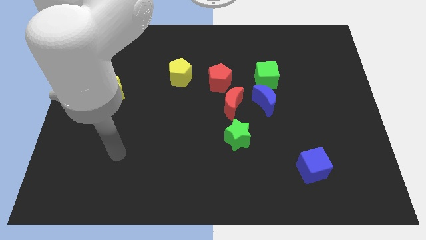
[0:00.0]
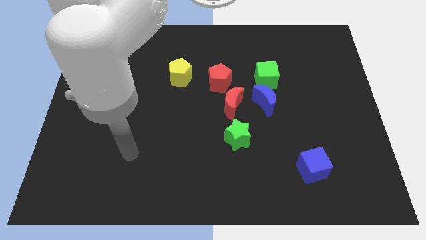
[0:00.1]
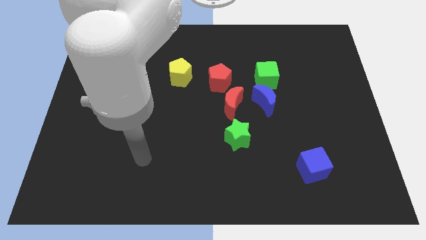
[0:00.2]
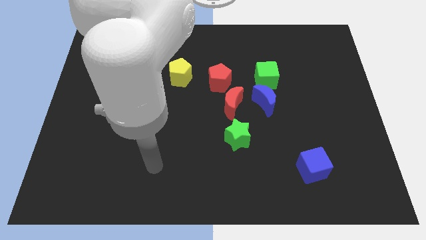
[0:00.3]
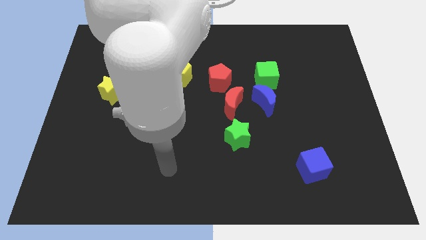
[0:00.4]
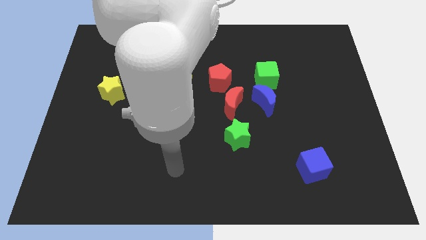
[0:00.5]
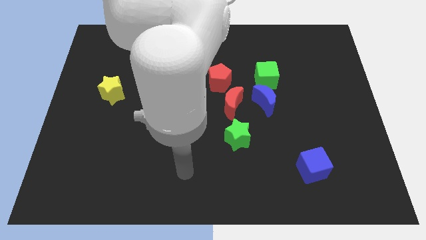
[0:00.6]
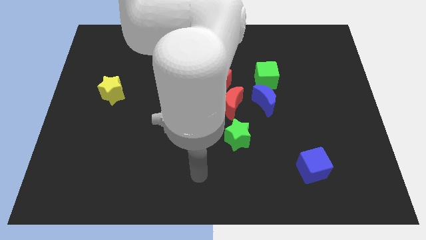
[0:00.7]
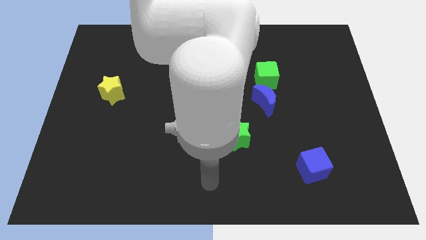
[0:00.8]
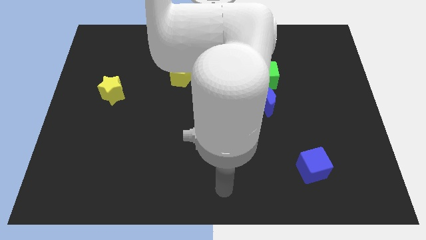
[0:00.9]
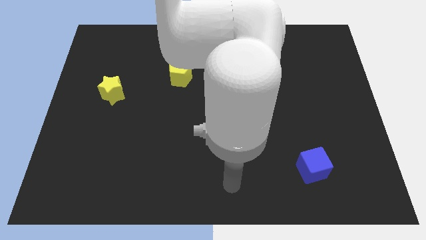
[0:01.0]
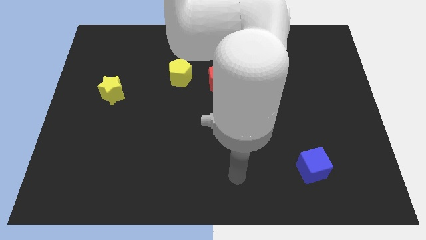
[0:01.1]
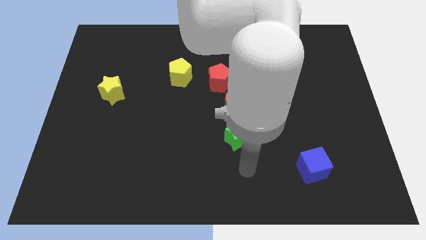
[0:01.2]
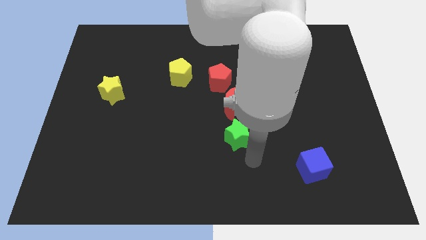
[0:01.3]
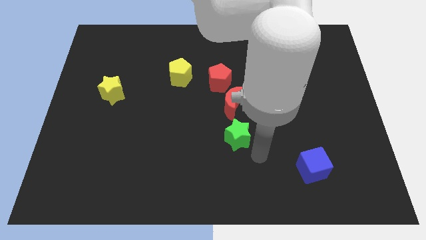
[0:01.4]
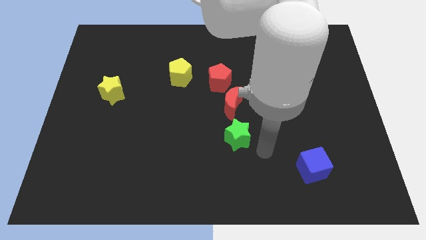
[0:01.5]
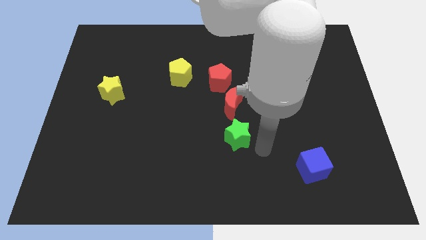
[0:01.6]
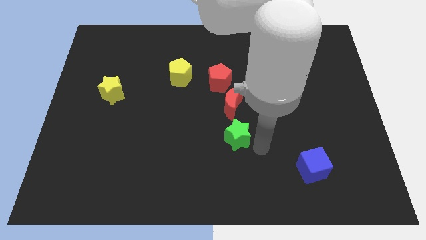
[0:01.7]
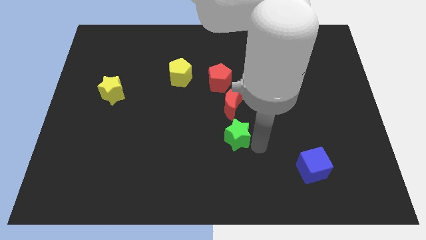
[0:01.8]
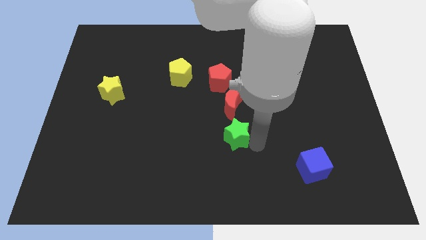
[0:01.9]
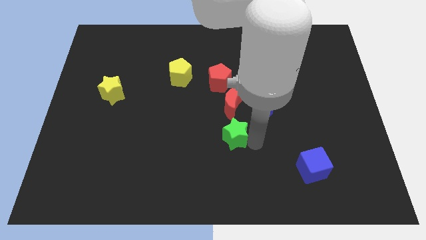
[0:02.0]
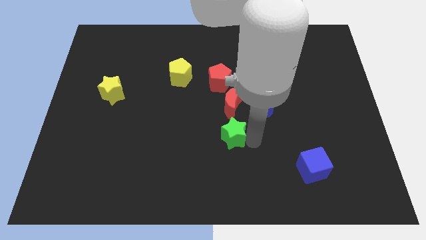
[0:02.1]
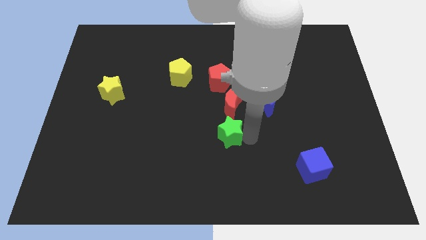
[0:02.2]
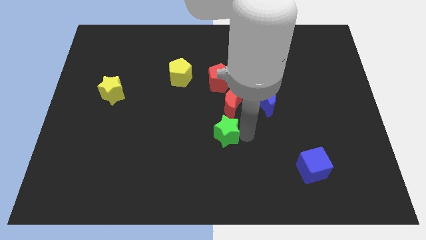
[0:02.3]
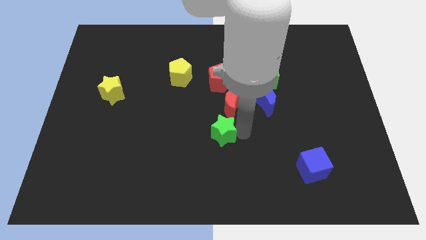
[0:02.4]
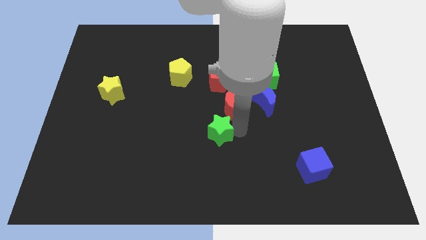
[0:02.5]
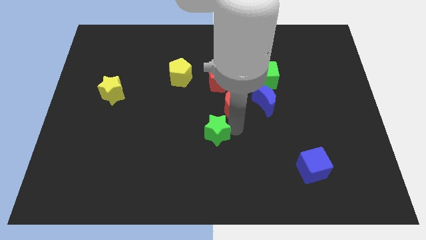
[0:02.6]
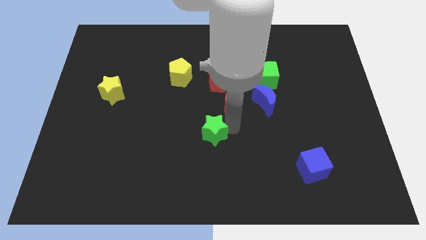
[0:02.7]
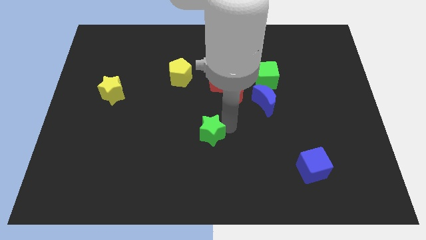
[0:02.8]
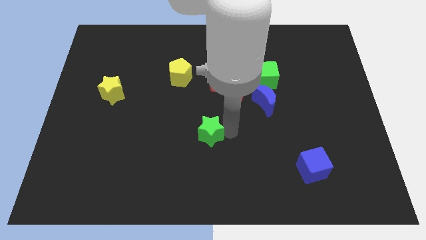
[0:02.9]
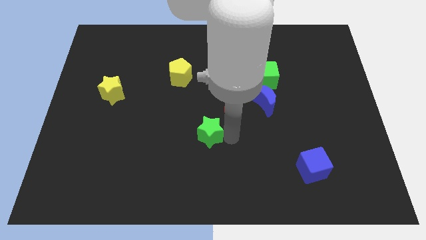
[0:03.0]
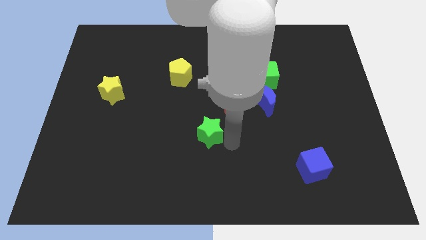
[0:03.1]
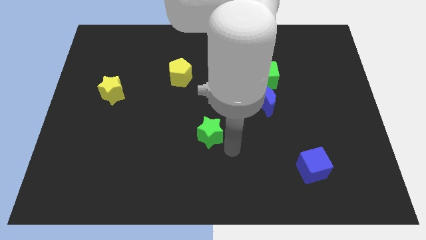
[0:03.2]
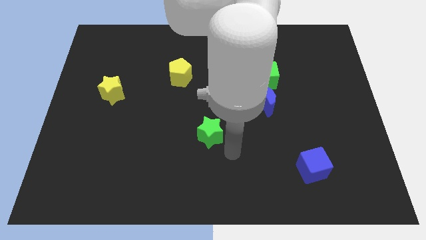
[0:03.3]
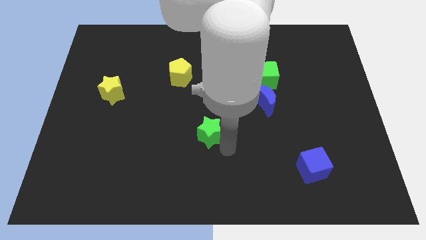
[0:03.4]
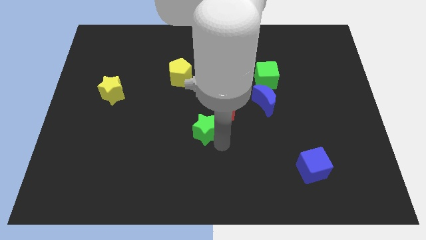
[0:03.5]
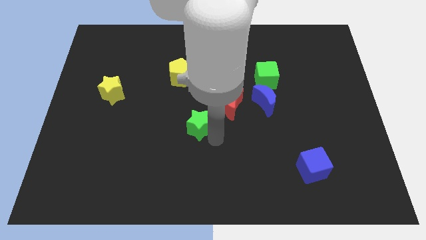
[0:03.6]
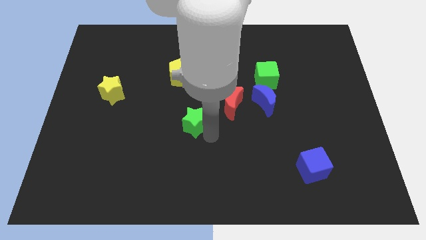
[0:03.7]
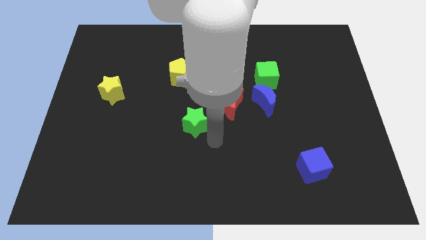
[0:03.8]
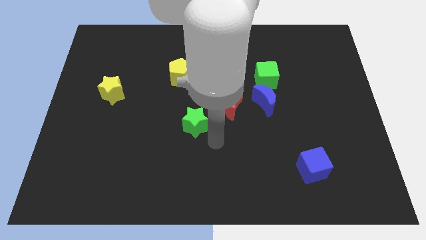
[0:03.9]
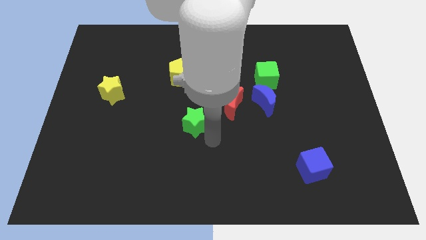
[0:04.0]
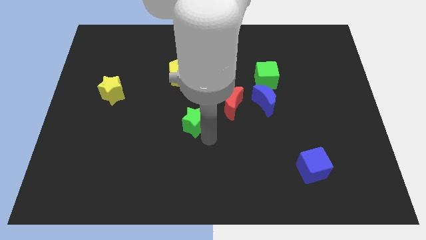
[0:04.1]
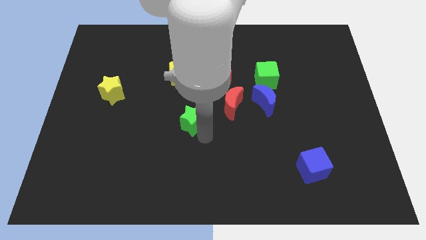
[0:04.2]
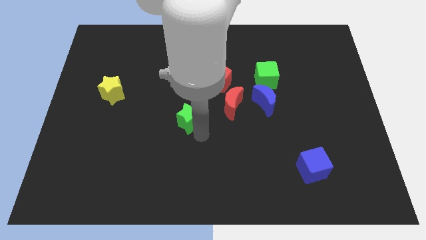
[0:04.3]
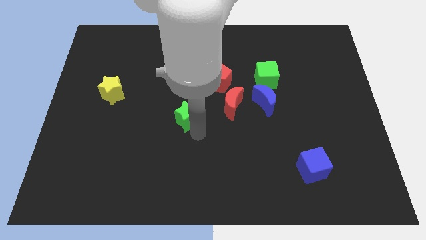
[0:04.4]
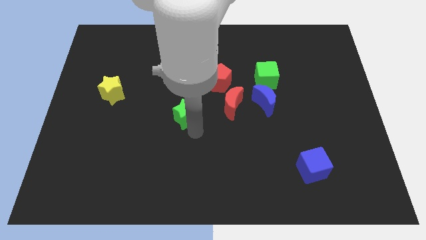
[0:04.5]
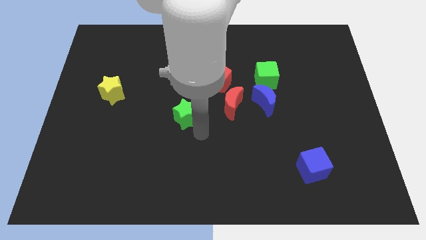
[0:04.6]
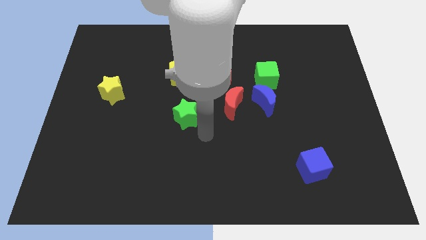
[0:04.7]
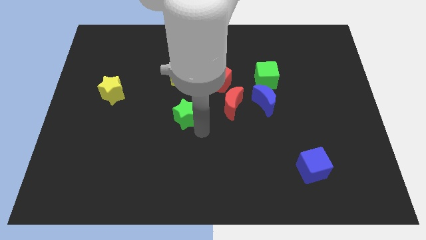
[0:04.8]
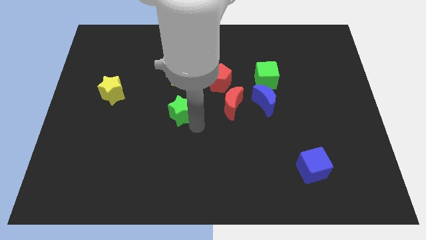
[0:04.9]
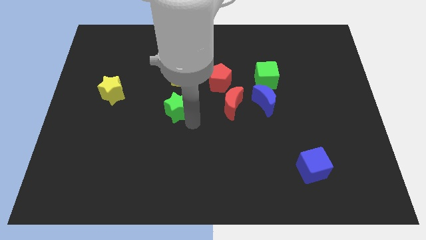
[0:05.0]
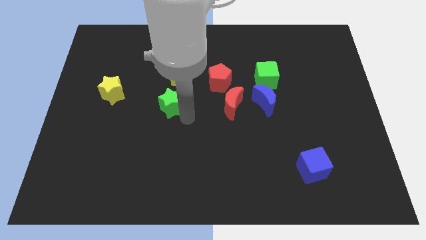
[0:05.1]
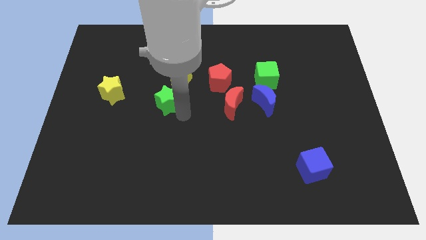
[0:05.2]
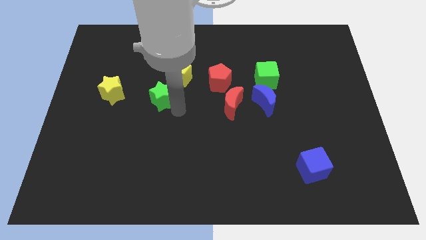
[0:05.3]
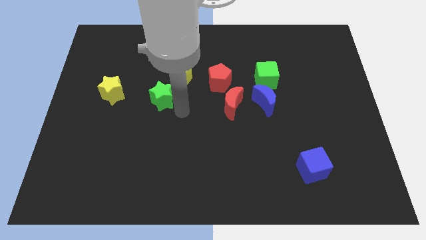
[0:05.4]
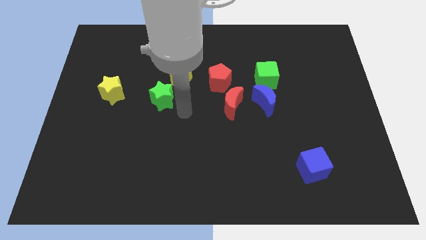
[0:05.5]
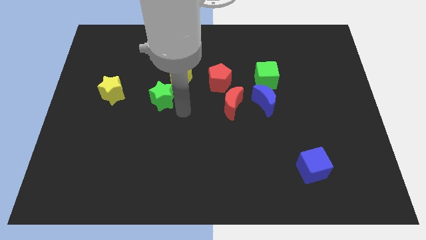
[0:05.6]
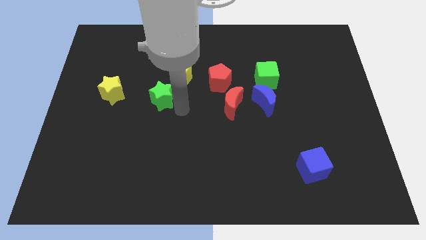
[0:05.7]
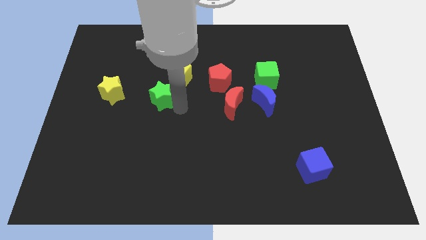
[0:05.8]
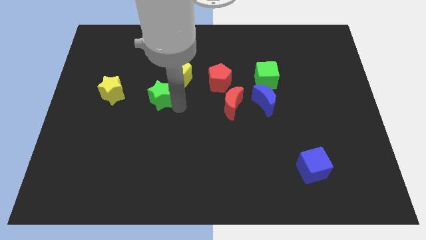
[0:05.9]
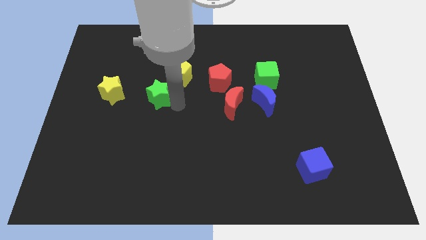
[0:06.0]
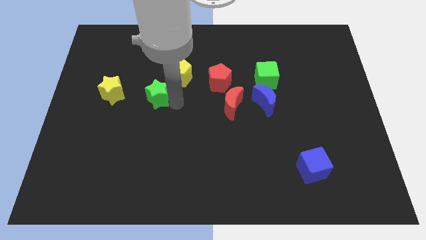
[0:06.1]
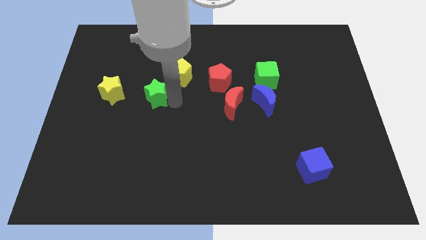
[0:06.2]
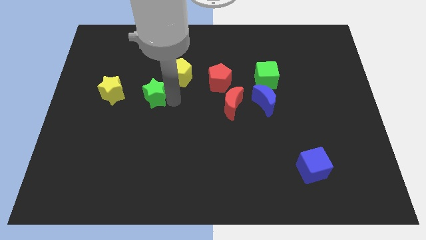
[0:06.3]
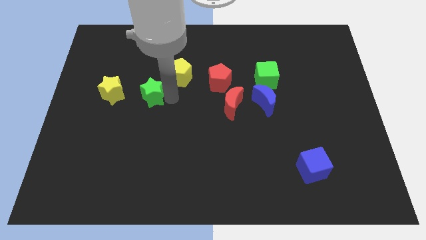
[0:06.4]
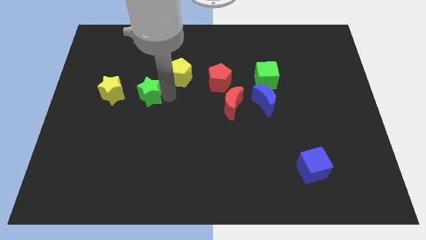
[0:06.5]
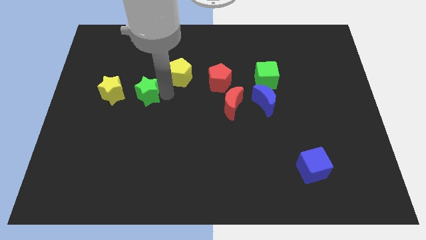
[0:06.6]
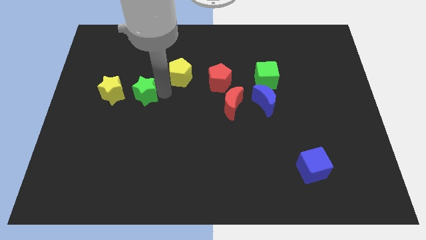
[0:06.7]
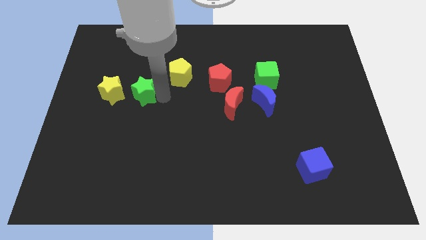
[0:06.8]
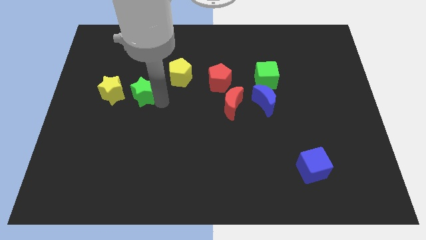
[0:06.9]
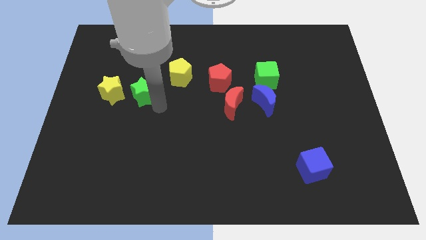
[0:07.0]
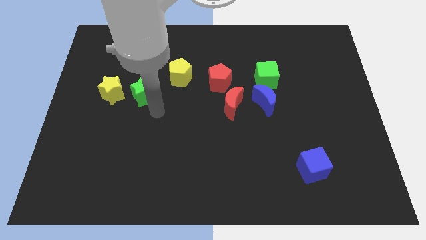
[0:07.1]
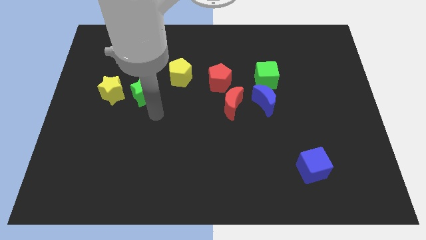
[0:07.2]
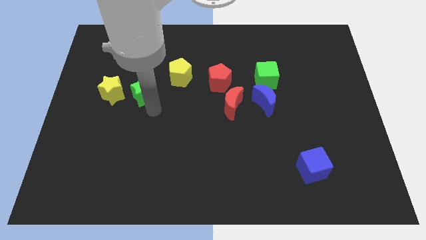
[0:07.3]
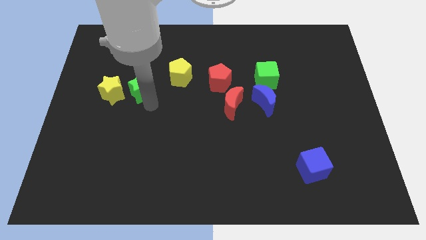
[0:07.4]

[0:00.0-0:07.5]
slide the green star to the top right side of the yellow star
